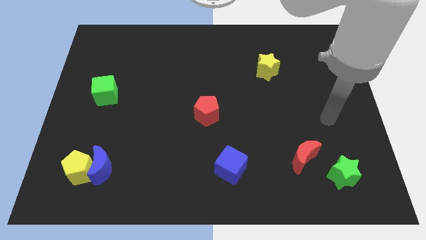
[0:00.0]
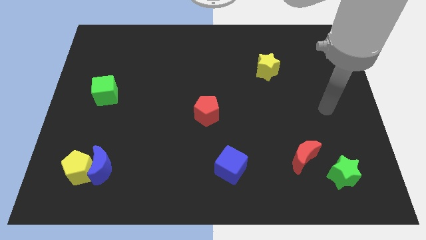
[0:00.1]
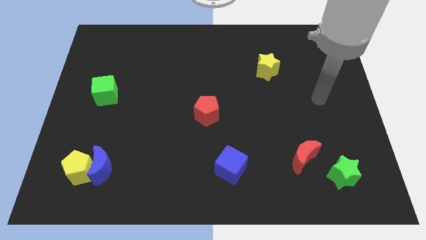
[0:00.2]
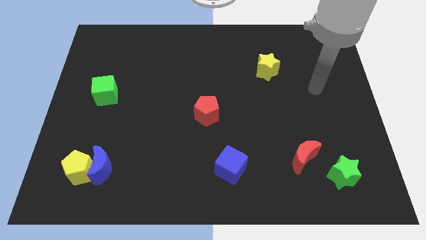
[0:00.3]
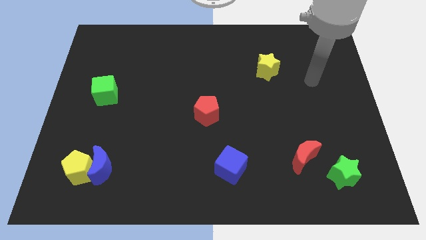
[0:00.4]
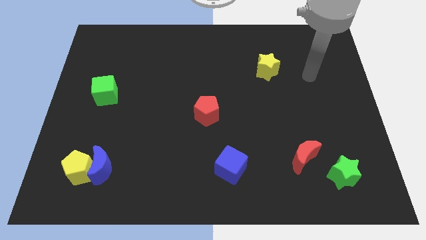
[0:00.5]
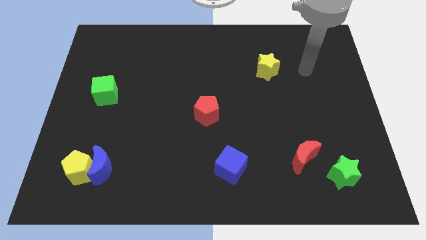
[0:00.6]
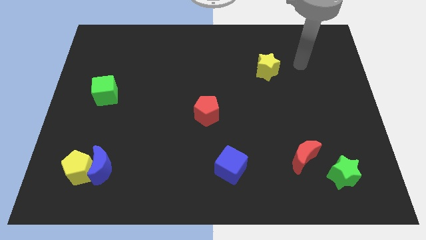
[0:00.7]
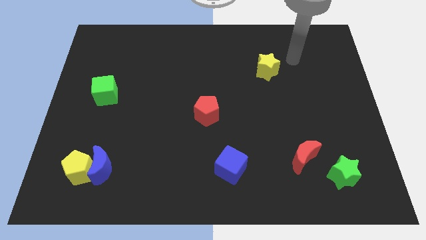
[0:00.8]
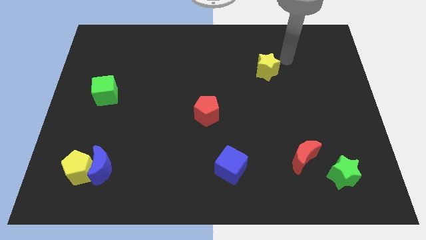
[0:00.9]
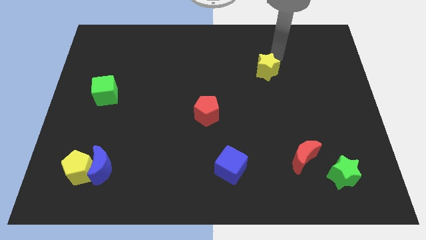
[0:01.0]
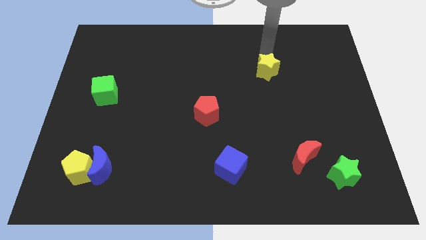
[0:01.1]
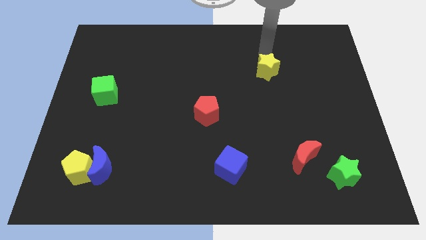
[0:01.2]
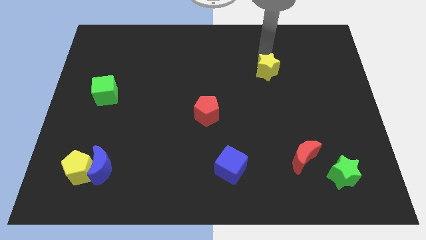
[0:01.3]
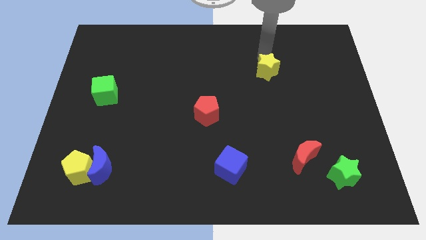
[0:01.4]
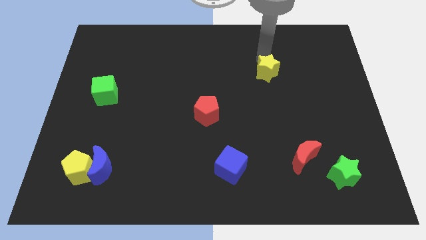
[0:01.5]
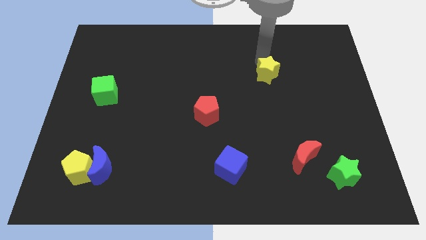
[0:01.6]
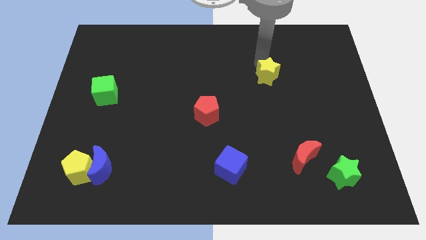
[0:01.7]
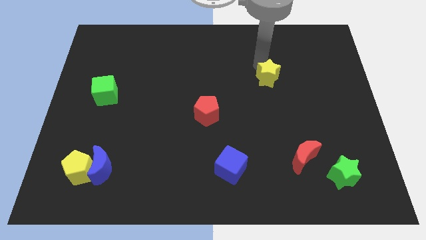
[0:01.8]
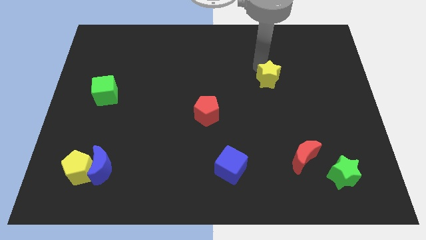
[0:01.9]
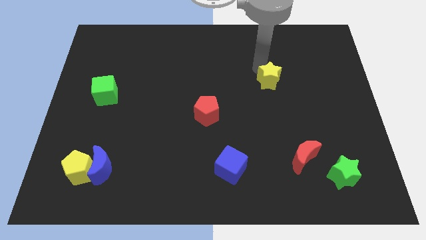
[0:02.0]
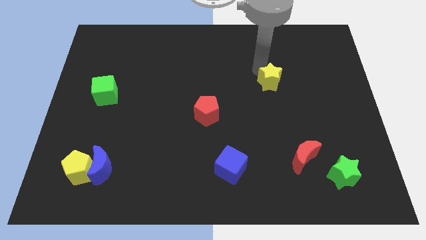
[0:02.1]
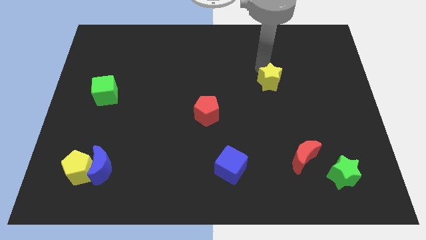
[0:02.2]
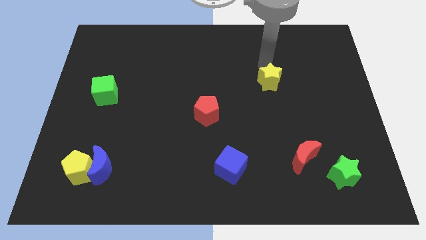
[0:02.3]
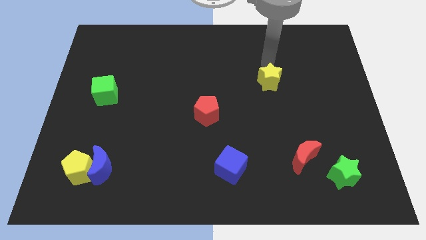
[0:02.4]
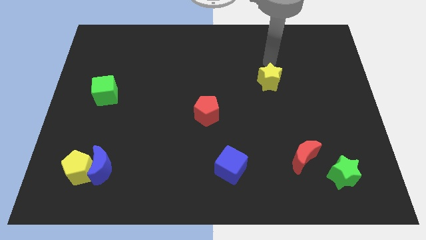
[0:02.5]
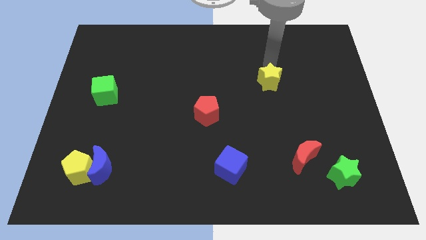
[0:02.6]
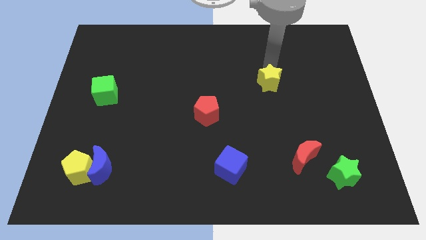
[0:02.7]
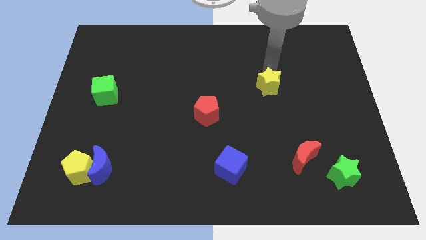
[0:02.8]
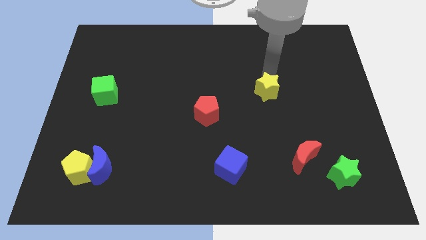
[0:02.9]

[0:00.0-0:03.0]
move the yellow star somewhat downwards

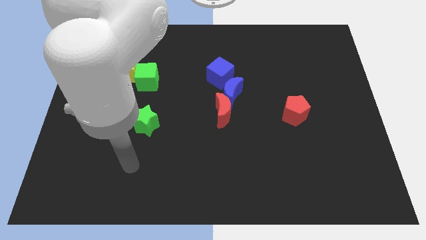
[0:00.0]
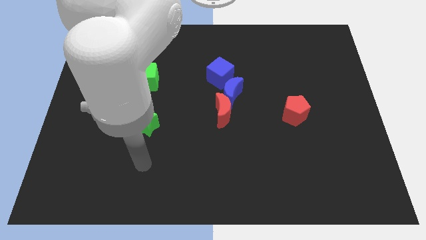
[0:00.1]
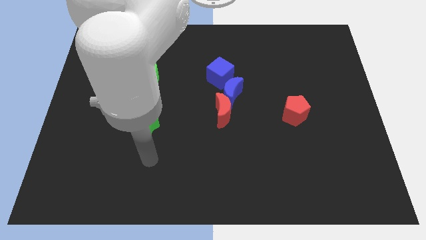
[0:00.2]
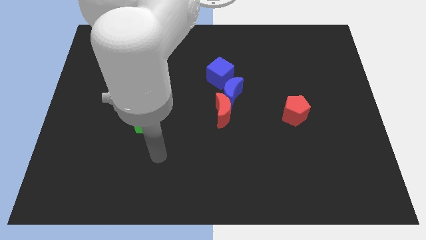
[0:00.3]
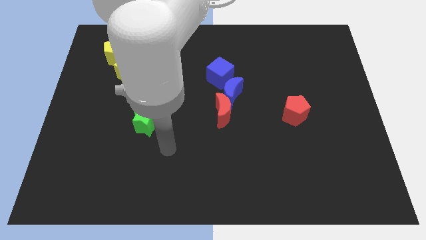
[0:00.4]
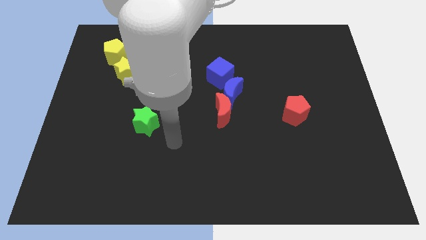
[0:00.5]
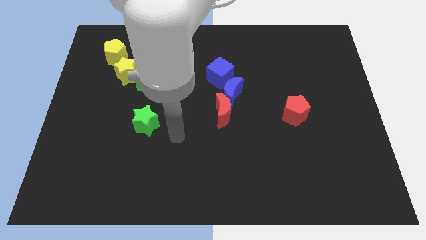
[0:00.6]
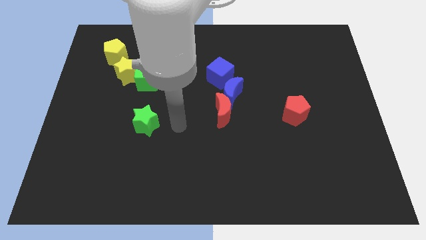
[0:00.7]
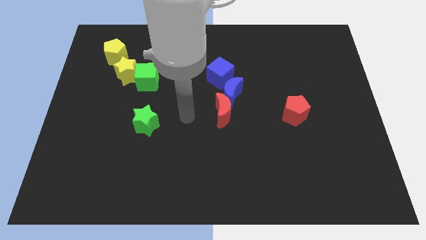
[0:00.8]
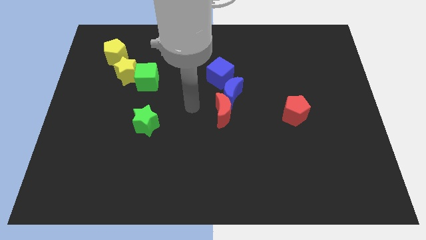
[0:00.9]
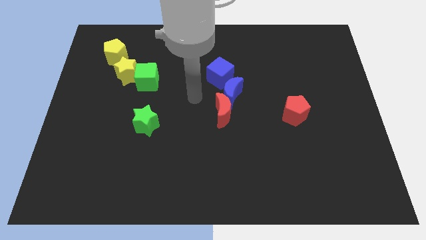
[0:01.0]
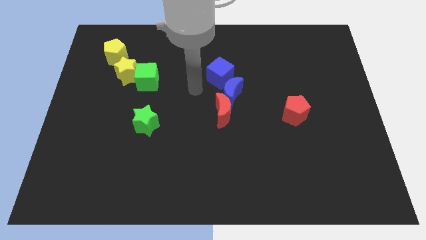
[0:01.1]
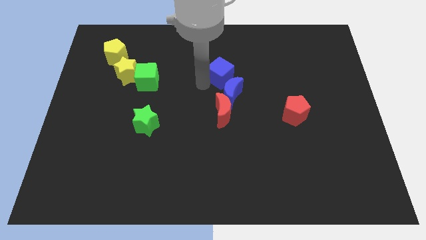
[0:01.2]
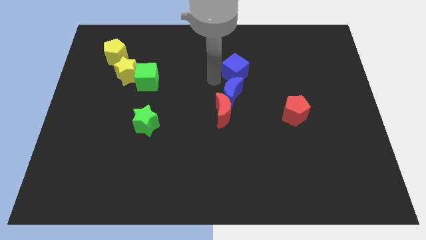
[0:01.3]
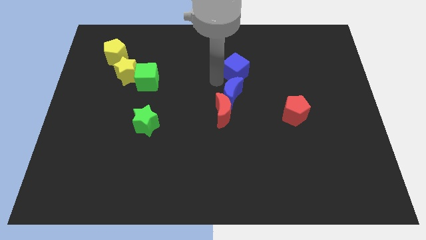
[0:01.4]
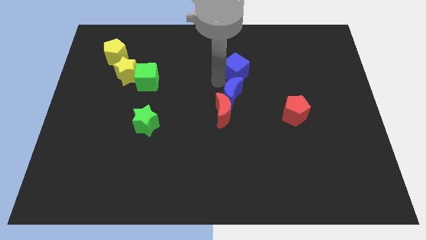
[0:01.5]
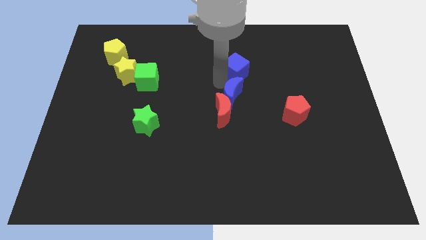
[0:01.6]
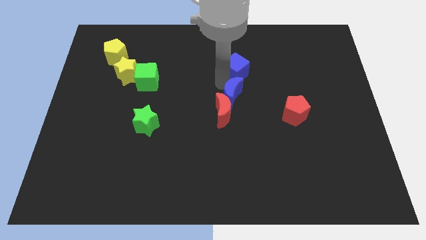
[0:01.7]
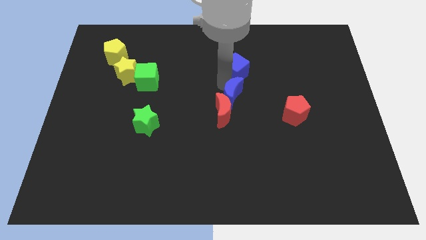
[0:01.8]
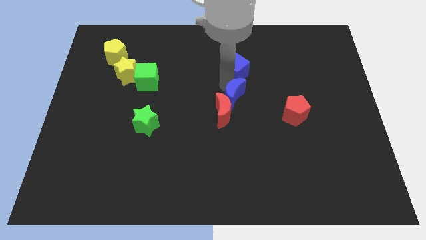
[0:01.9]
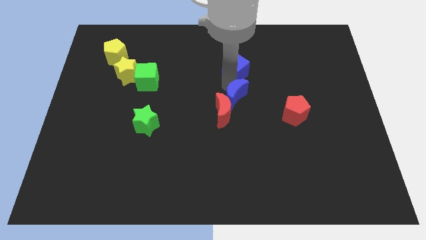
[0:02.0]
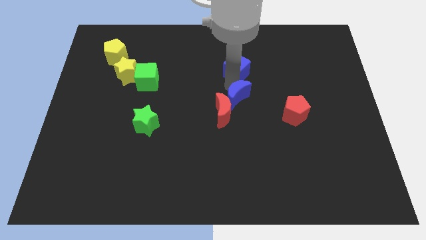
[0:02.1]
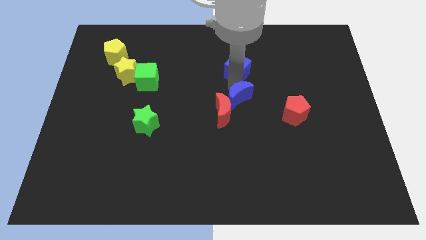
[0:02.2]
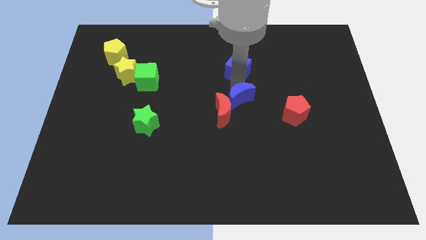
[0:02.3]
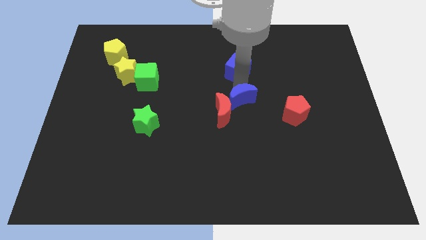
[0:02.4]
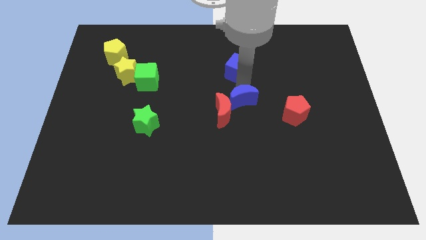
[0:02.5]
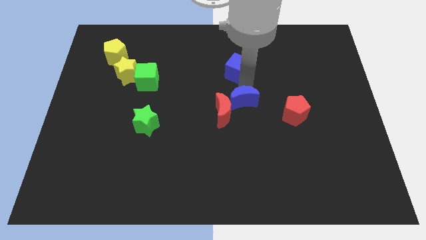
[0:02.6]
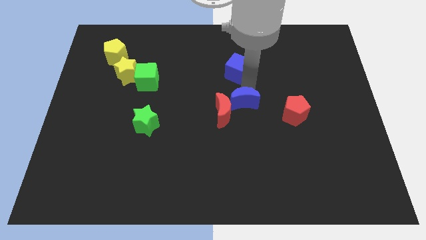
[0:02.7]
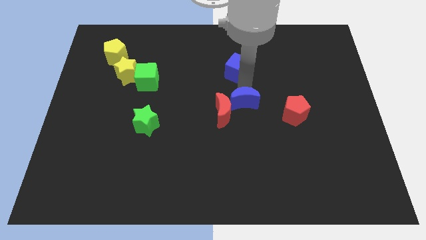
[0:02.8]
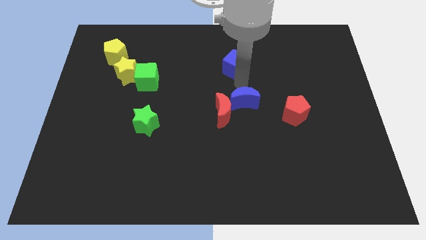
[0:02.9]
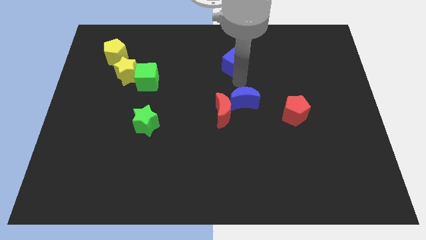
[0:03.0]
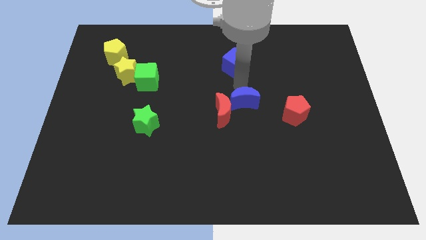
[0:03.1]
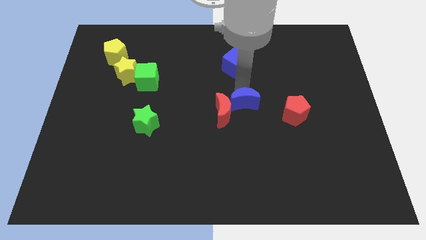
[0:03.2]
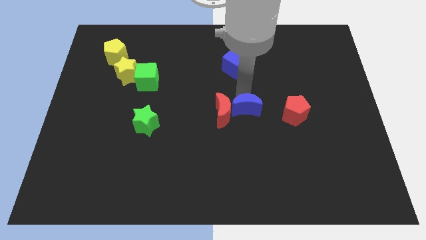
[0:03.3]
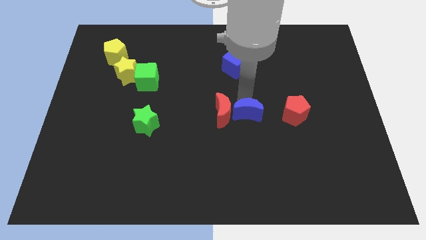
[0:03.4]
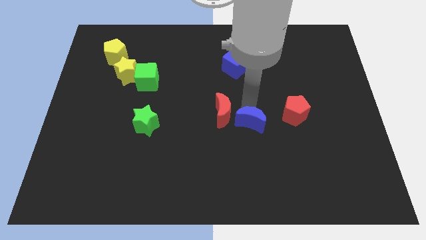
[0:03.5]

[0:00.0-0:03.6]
slightly move the blue moon downwards

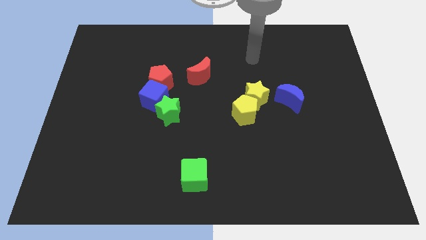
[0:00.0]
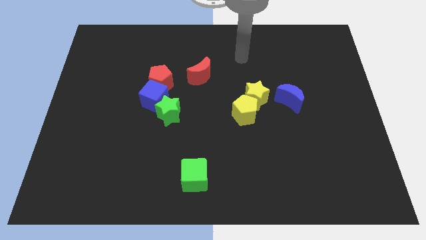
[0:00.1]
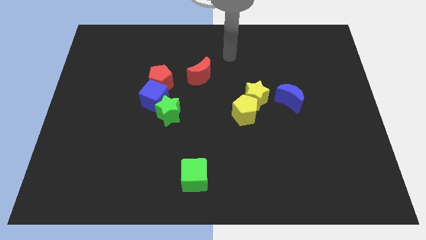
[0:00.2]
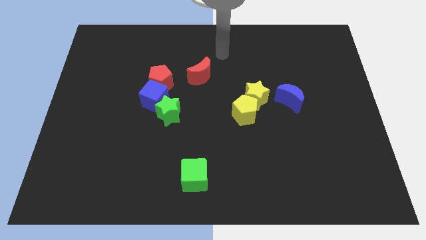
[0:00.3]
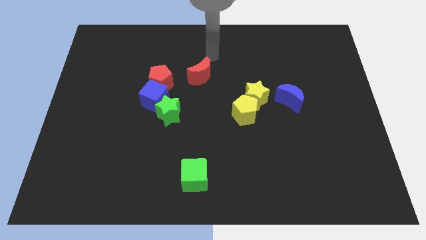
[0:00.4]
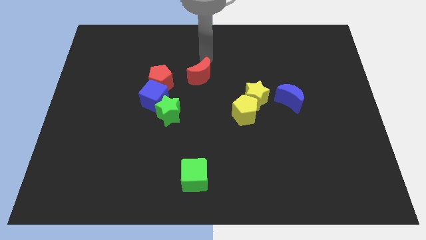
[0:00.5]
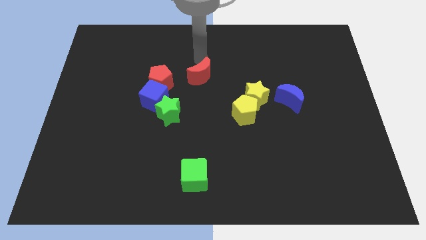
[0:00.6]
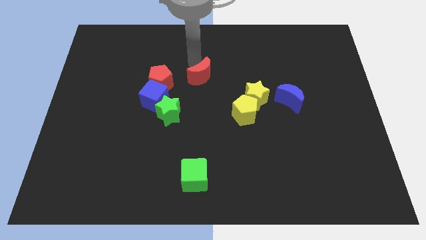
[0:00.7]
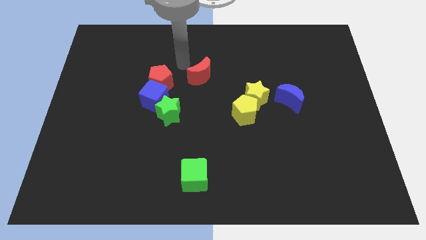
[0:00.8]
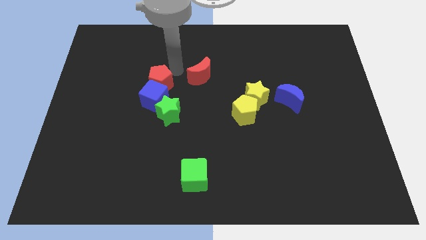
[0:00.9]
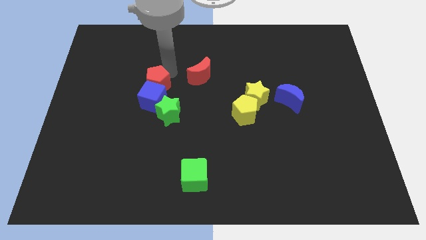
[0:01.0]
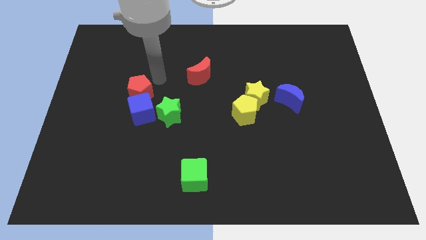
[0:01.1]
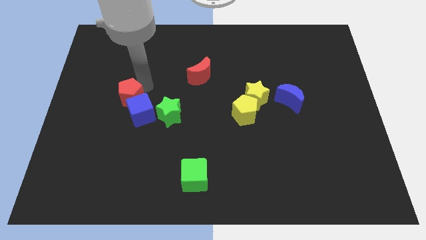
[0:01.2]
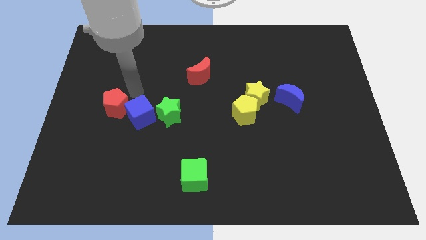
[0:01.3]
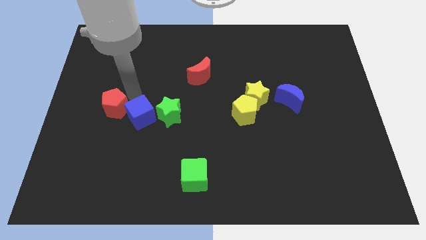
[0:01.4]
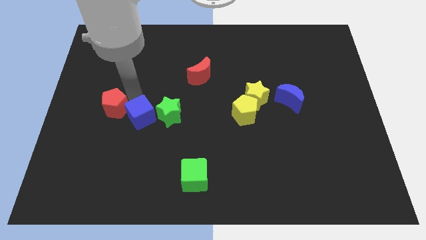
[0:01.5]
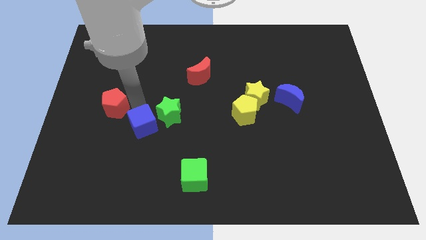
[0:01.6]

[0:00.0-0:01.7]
slide the blue cube downwards somewhat
